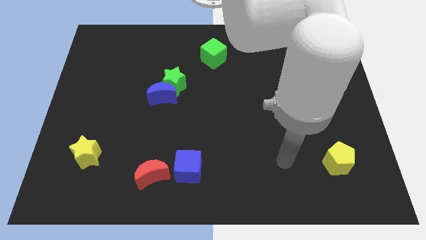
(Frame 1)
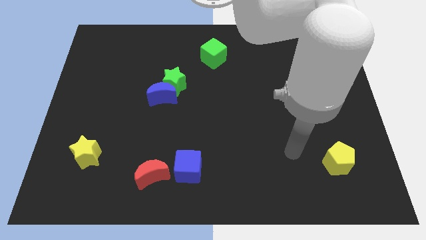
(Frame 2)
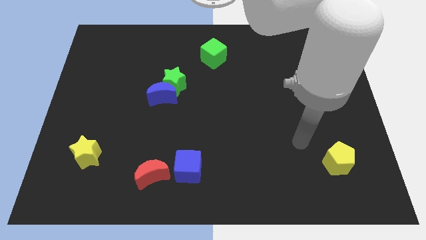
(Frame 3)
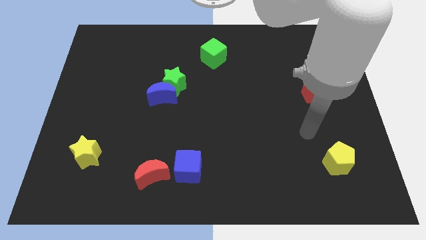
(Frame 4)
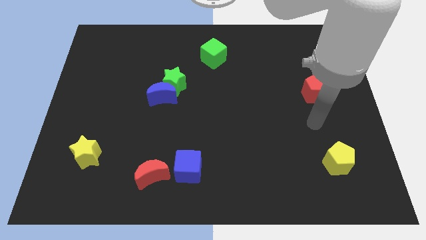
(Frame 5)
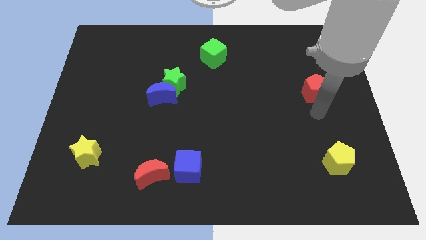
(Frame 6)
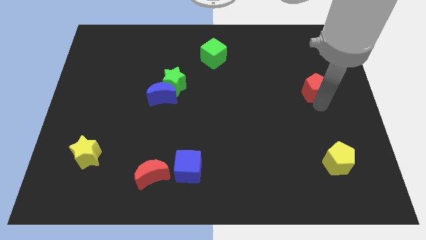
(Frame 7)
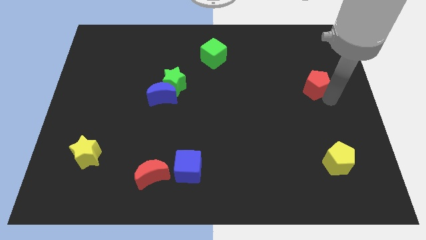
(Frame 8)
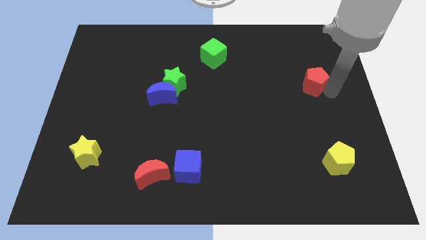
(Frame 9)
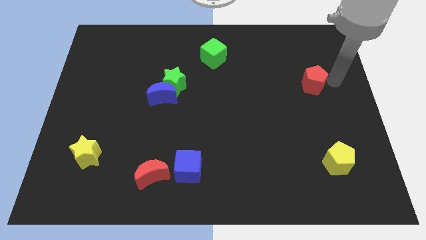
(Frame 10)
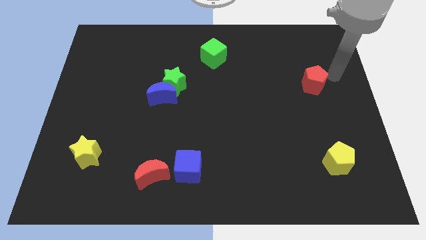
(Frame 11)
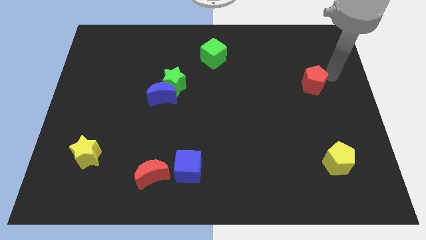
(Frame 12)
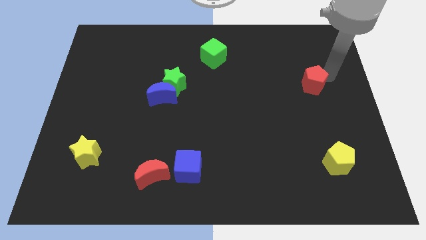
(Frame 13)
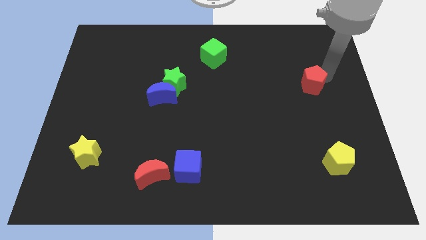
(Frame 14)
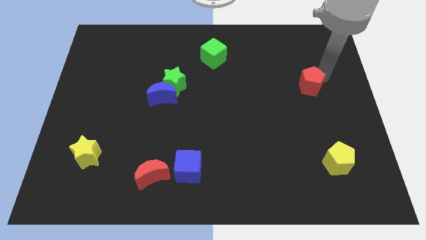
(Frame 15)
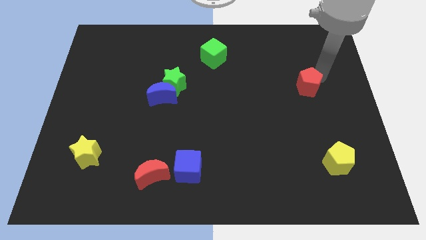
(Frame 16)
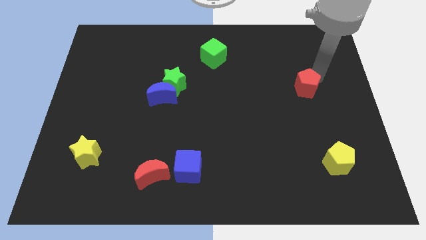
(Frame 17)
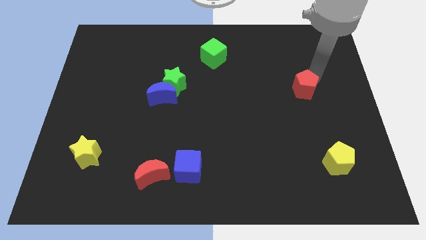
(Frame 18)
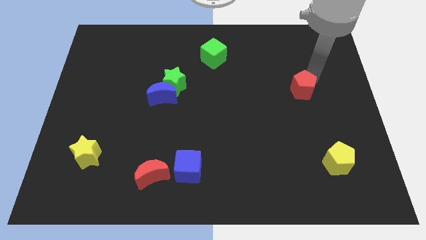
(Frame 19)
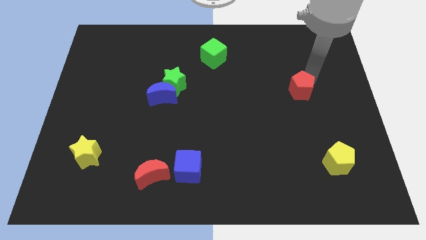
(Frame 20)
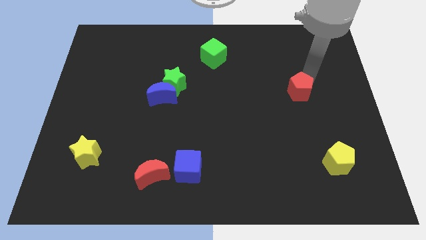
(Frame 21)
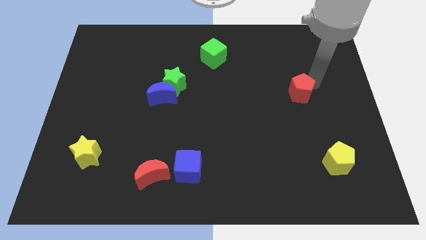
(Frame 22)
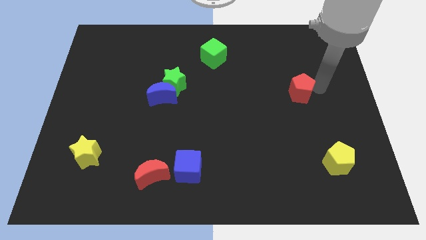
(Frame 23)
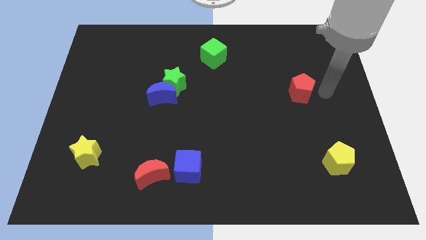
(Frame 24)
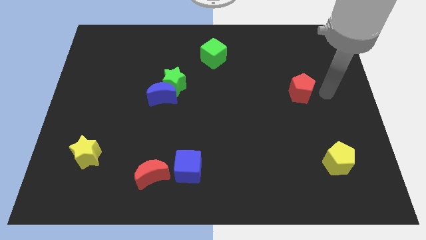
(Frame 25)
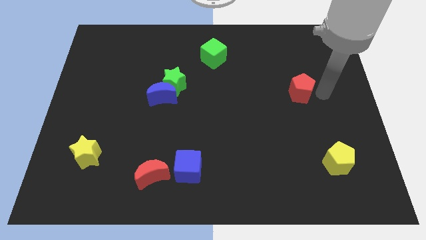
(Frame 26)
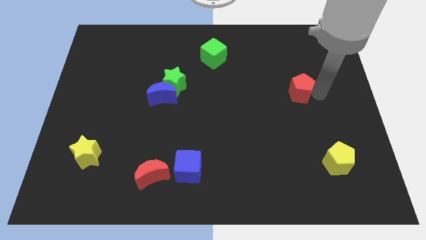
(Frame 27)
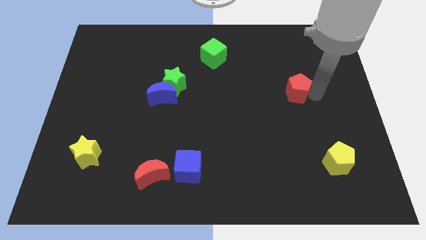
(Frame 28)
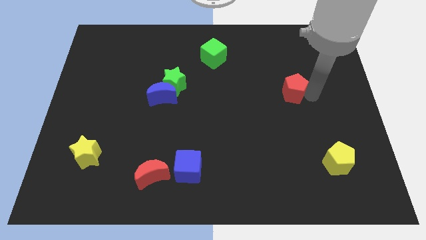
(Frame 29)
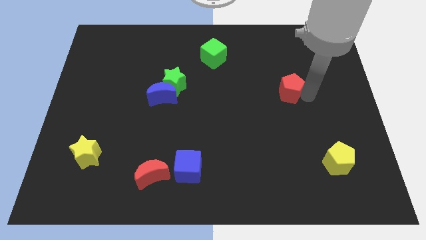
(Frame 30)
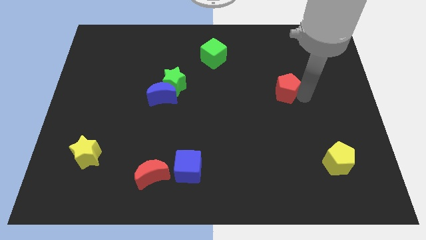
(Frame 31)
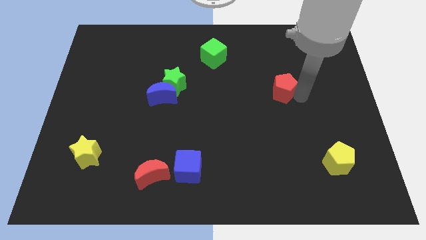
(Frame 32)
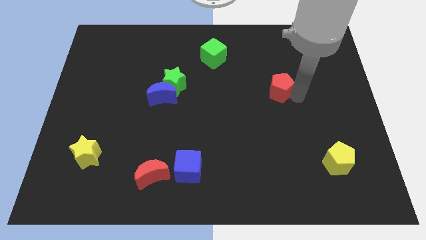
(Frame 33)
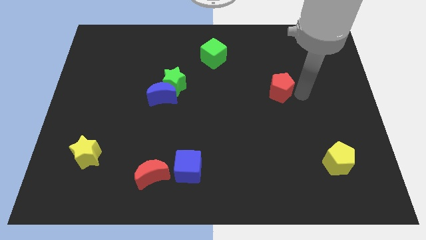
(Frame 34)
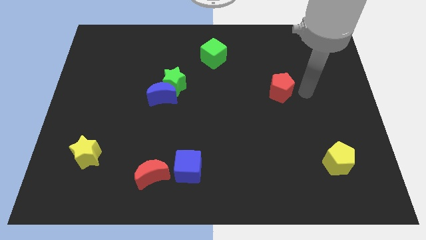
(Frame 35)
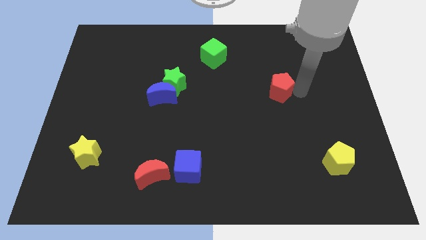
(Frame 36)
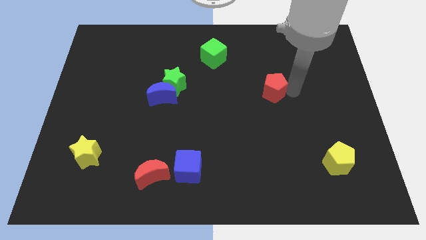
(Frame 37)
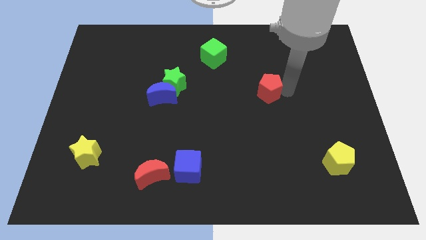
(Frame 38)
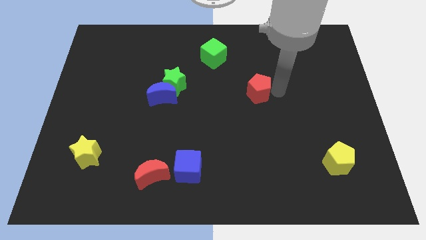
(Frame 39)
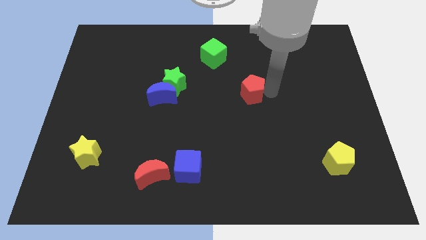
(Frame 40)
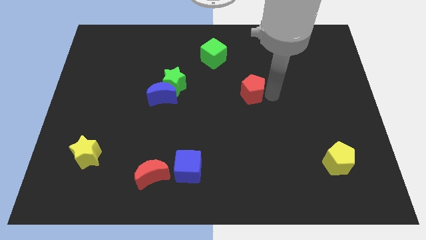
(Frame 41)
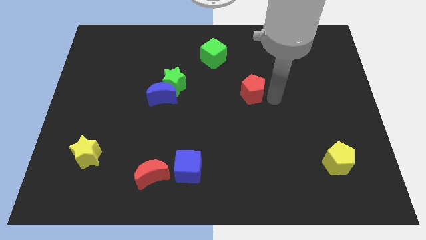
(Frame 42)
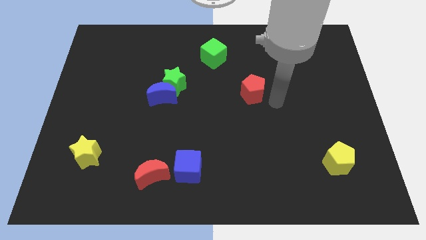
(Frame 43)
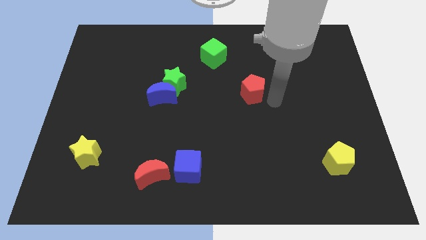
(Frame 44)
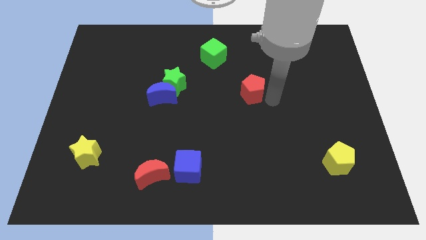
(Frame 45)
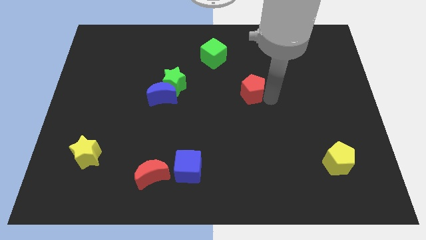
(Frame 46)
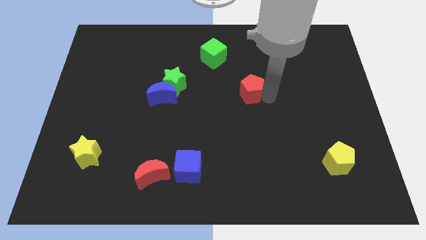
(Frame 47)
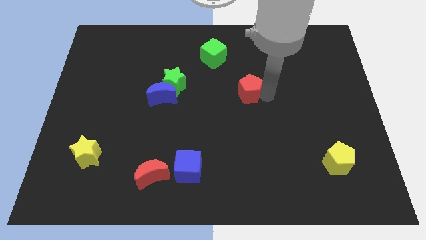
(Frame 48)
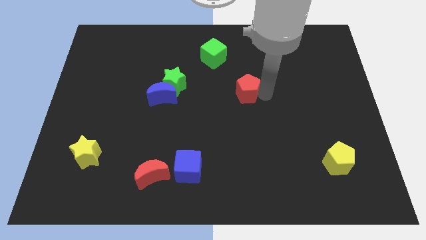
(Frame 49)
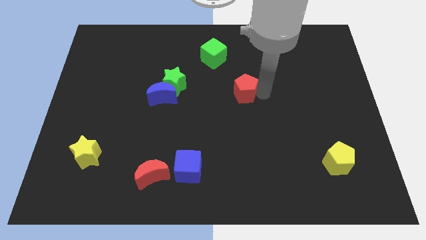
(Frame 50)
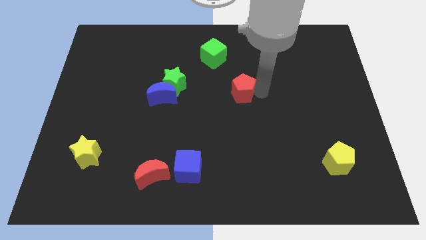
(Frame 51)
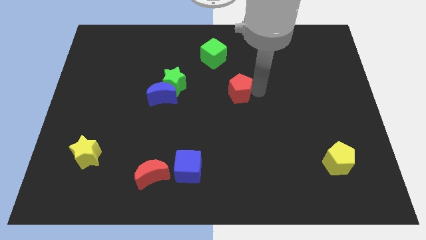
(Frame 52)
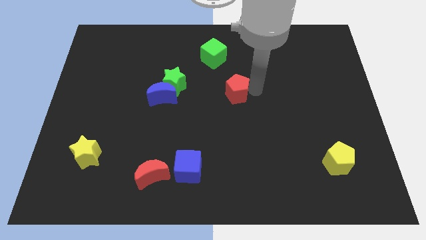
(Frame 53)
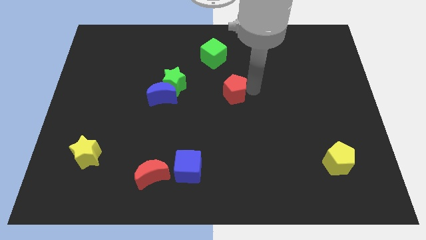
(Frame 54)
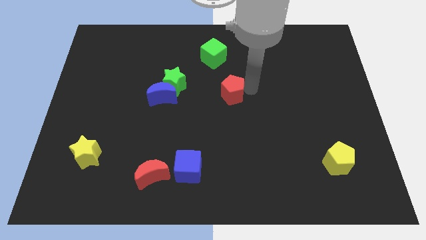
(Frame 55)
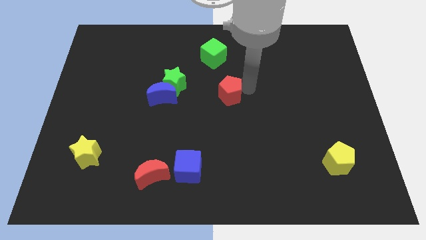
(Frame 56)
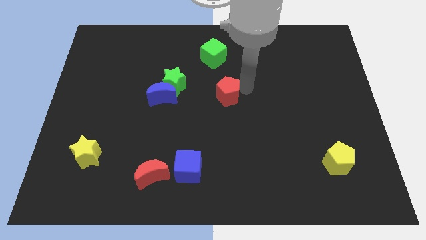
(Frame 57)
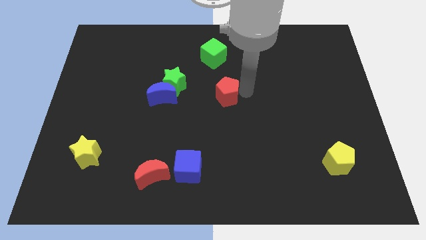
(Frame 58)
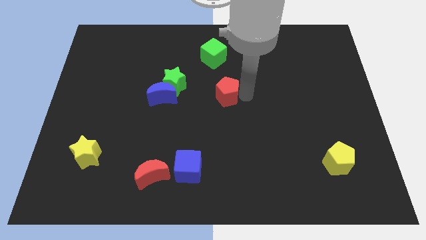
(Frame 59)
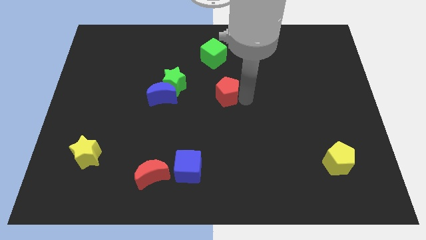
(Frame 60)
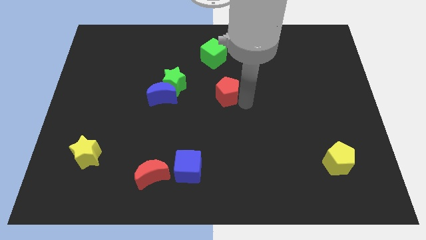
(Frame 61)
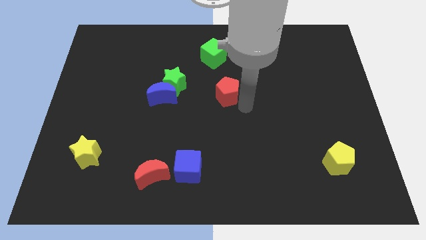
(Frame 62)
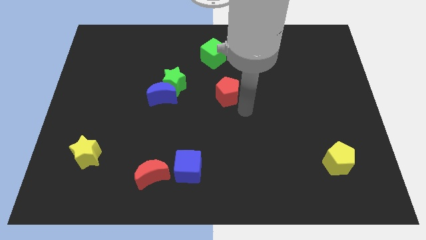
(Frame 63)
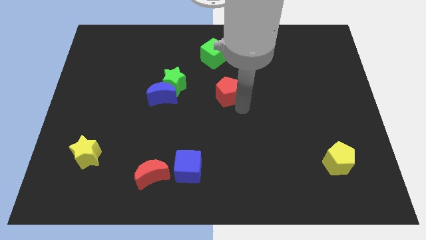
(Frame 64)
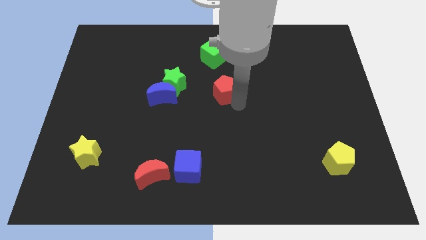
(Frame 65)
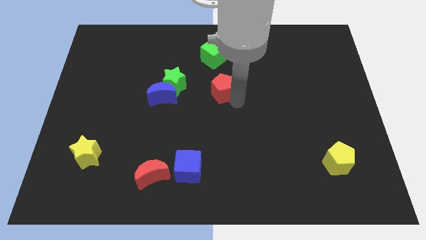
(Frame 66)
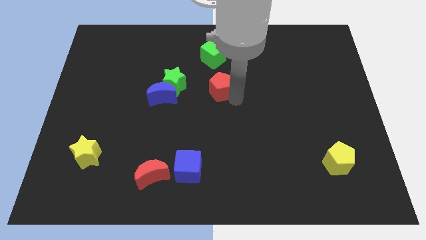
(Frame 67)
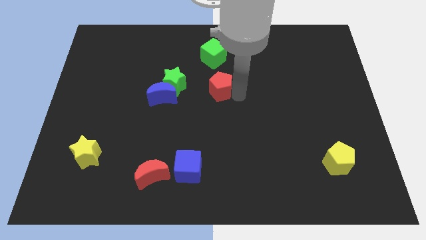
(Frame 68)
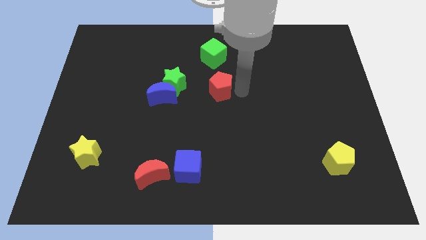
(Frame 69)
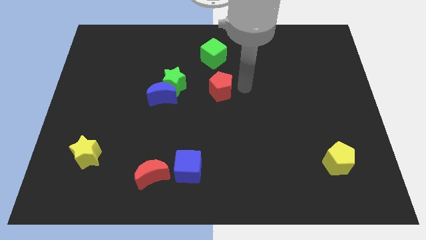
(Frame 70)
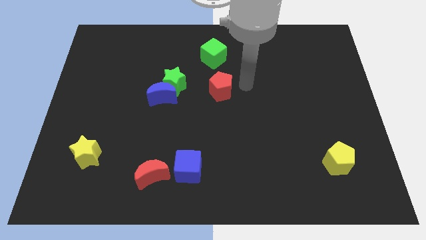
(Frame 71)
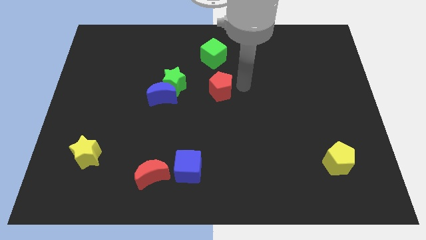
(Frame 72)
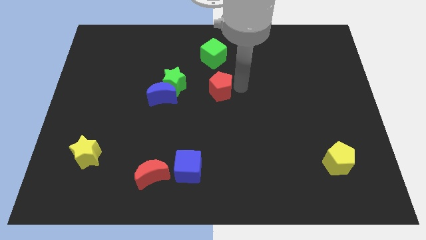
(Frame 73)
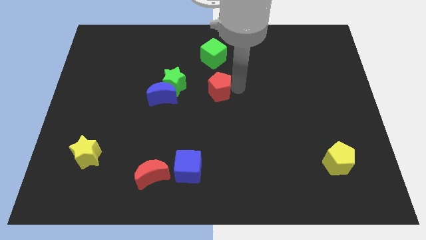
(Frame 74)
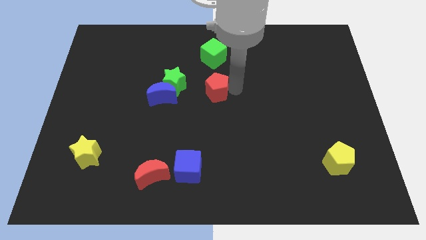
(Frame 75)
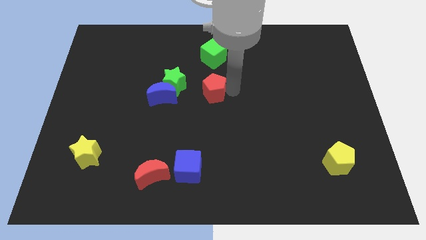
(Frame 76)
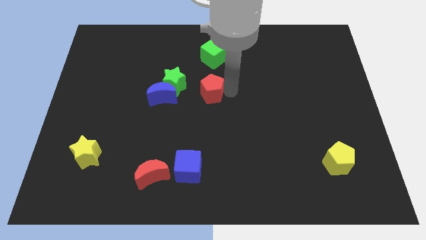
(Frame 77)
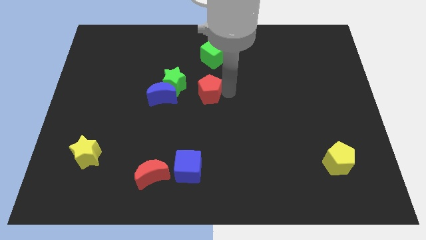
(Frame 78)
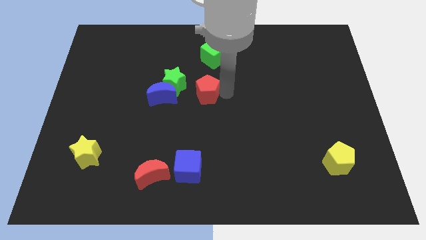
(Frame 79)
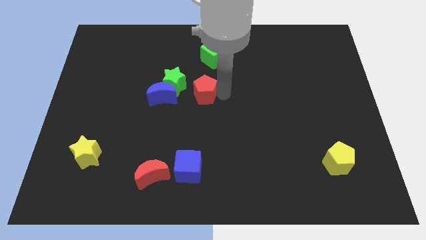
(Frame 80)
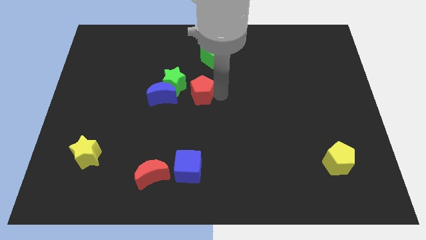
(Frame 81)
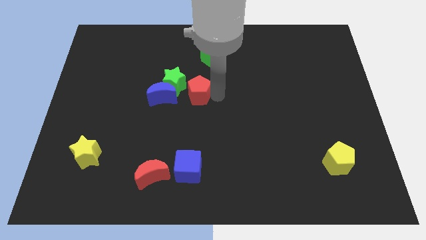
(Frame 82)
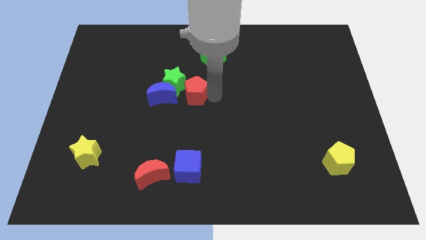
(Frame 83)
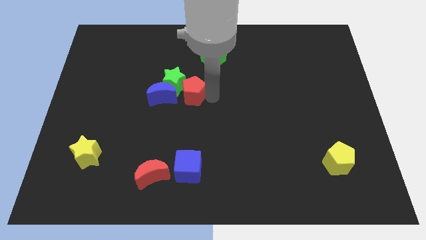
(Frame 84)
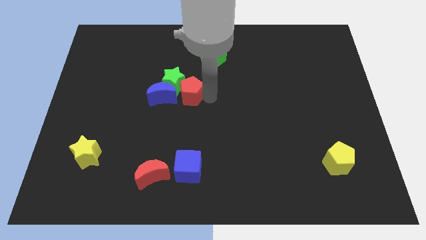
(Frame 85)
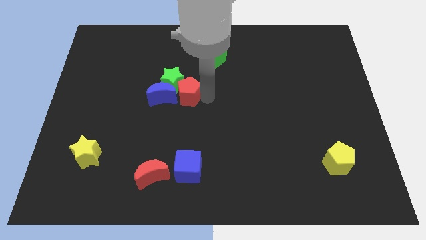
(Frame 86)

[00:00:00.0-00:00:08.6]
put the red pentagon next to the blue moon
